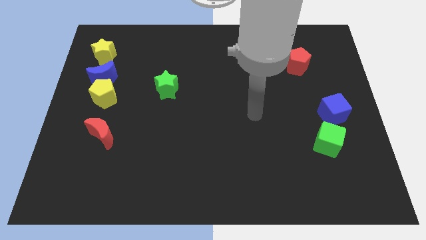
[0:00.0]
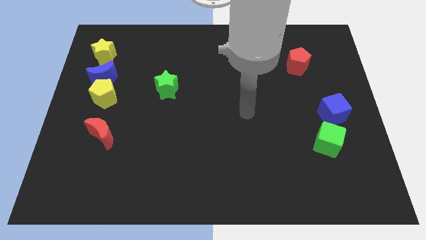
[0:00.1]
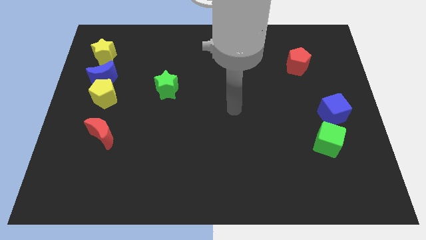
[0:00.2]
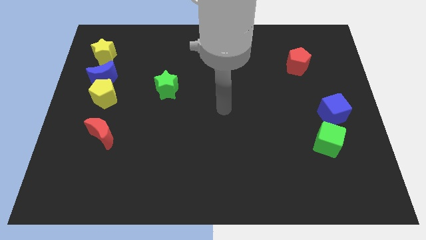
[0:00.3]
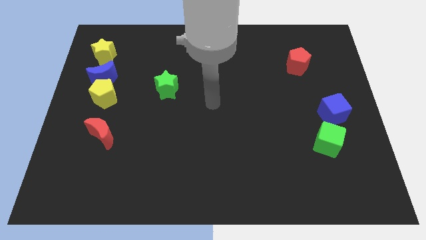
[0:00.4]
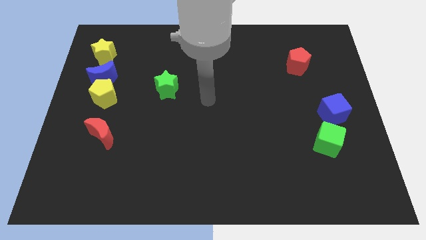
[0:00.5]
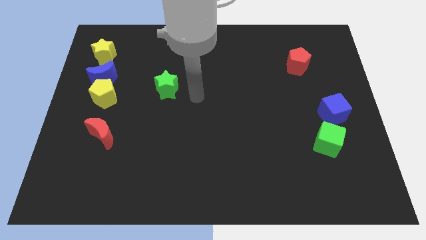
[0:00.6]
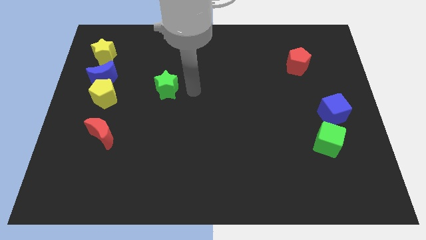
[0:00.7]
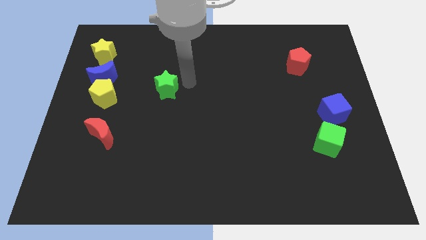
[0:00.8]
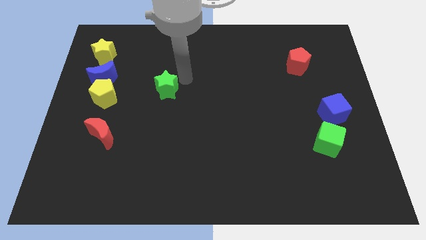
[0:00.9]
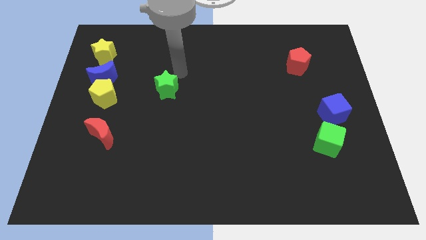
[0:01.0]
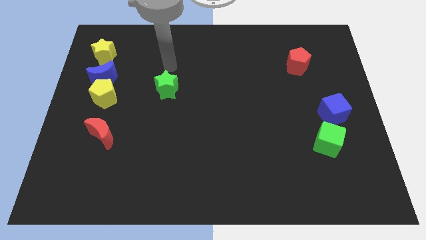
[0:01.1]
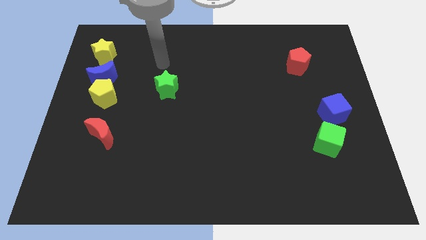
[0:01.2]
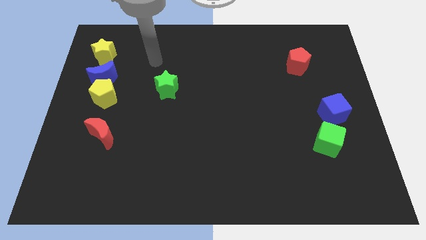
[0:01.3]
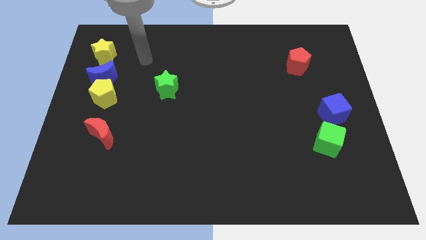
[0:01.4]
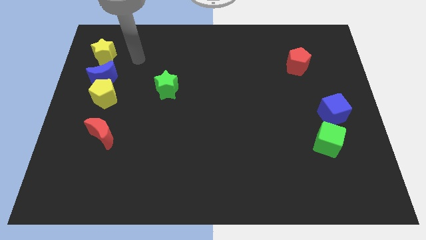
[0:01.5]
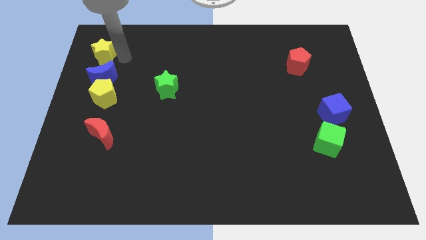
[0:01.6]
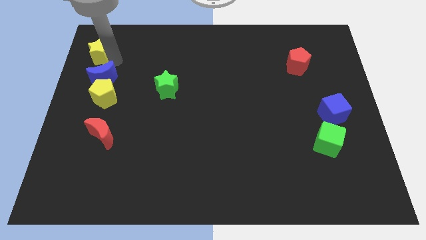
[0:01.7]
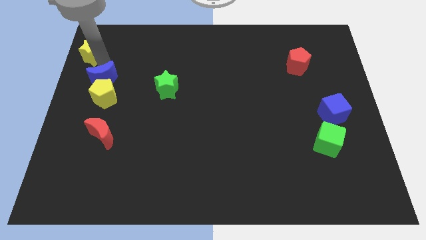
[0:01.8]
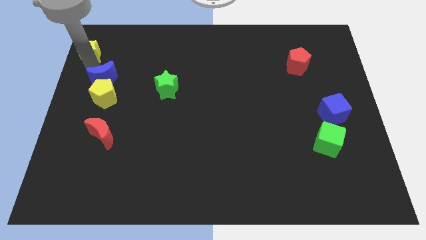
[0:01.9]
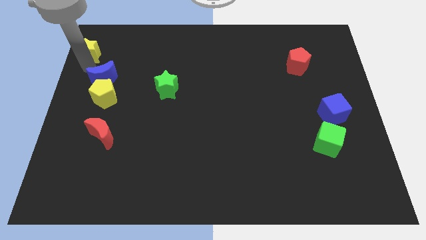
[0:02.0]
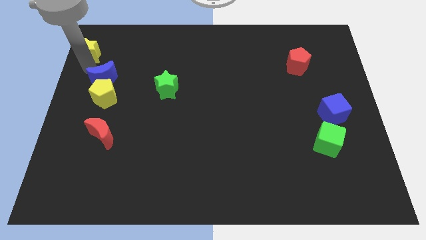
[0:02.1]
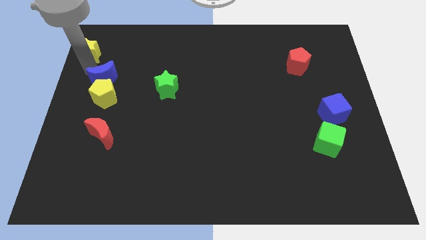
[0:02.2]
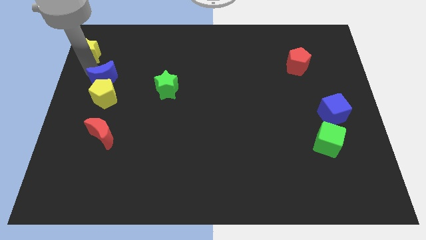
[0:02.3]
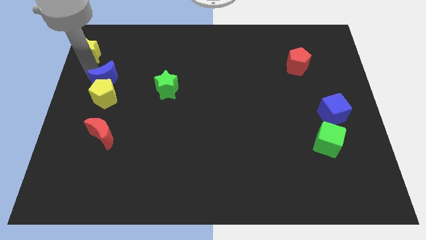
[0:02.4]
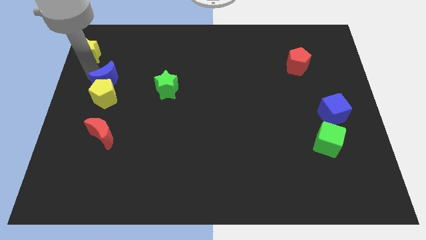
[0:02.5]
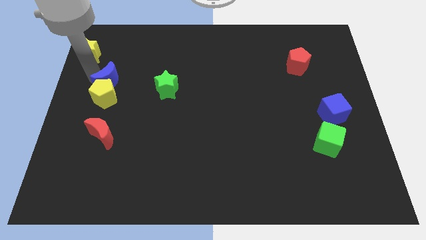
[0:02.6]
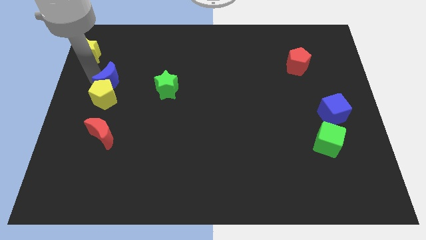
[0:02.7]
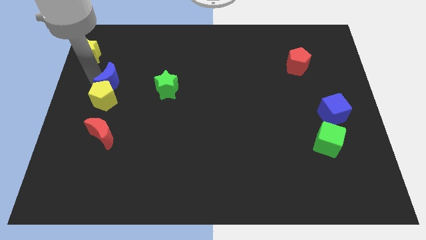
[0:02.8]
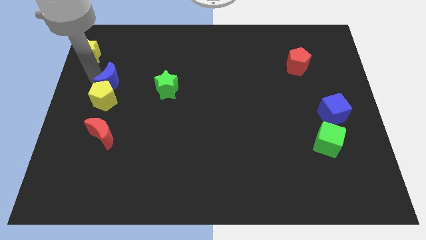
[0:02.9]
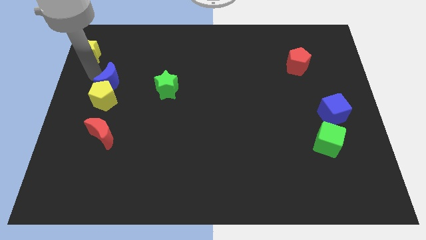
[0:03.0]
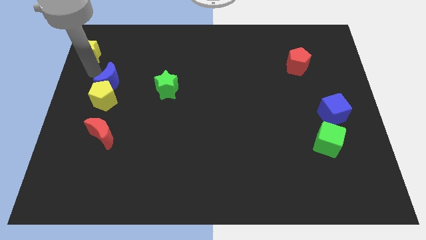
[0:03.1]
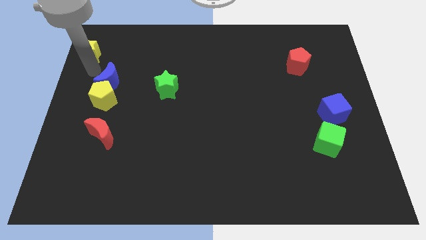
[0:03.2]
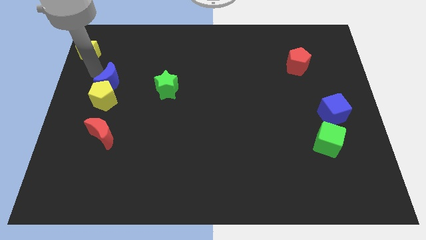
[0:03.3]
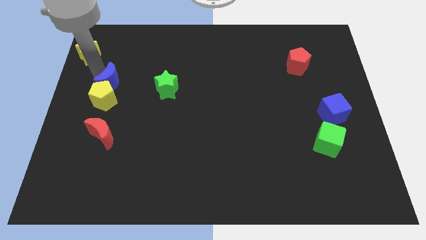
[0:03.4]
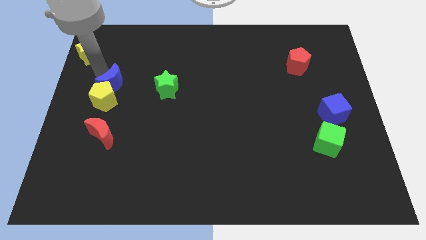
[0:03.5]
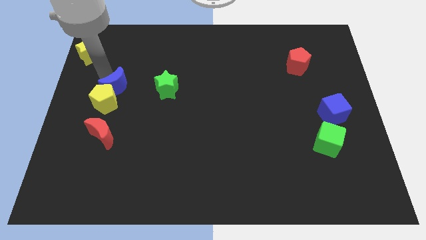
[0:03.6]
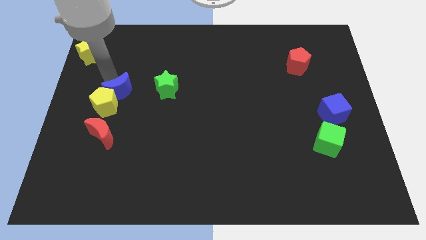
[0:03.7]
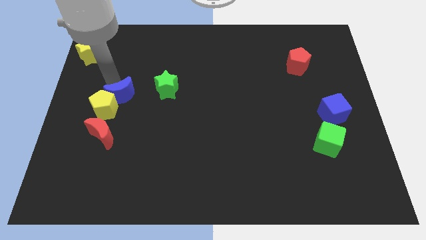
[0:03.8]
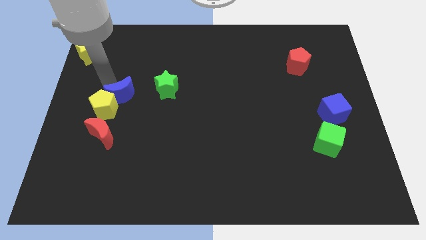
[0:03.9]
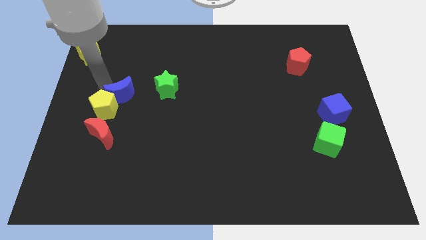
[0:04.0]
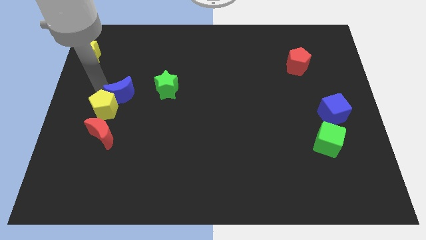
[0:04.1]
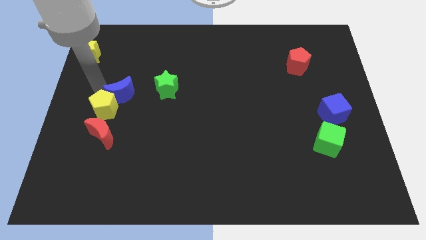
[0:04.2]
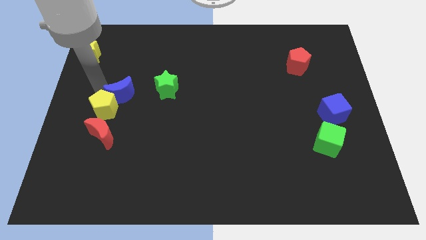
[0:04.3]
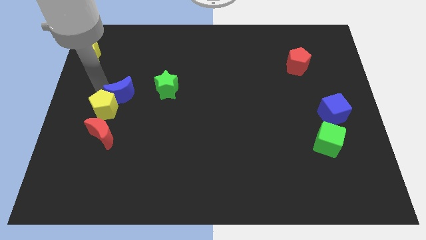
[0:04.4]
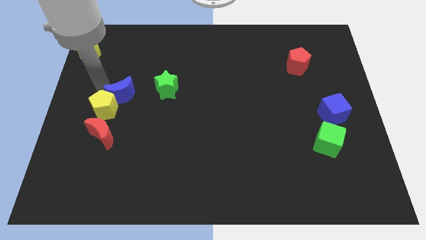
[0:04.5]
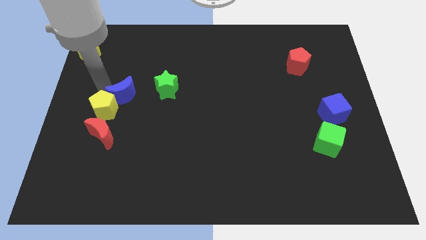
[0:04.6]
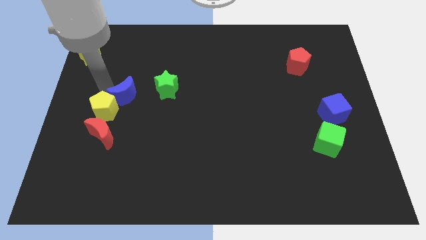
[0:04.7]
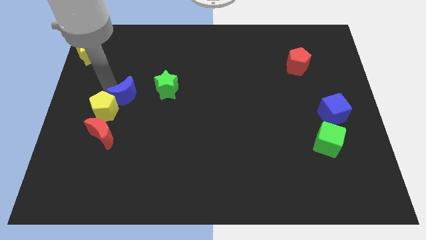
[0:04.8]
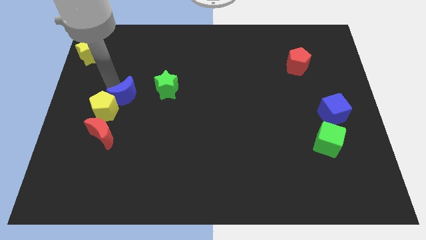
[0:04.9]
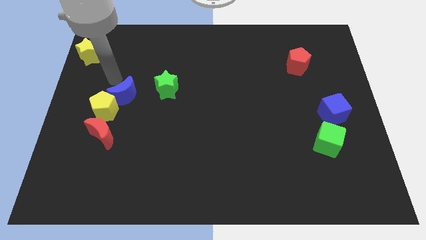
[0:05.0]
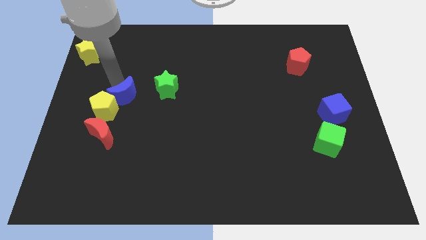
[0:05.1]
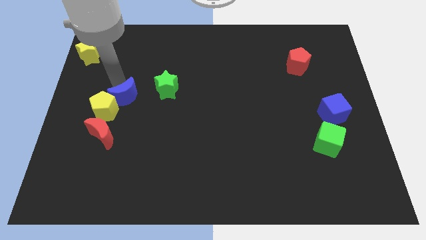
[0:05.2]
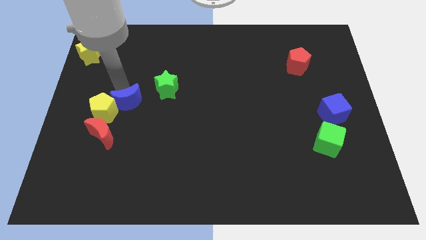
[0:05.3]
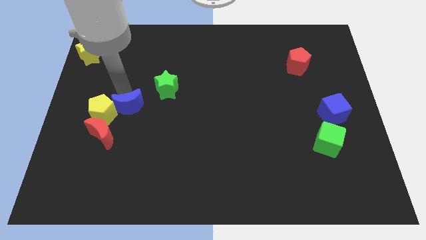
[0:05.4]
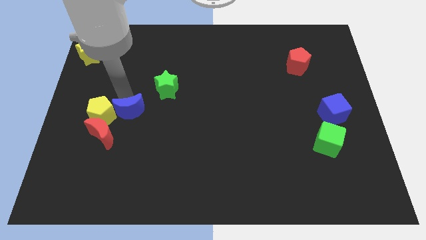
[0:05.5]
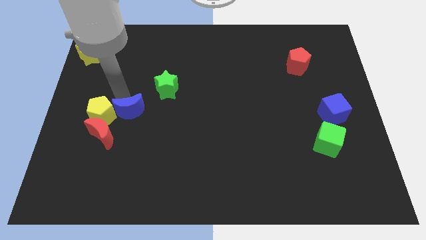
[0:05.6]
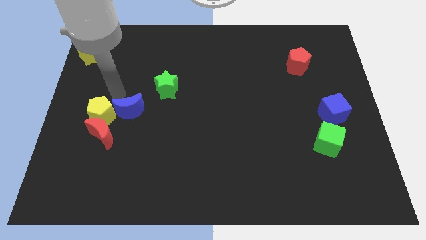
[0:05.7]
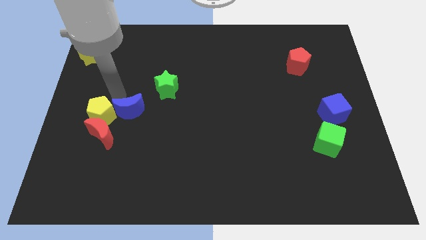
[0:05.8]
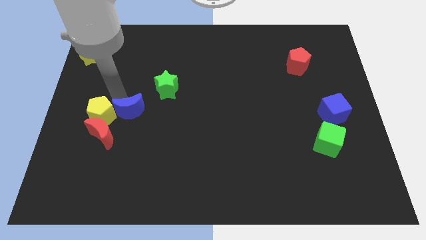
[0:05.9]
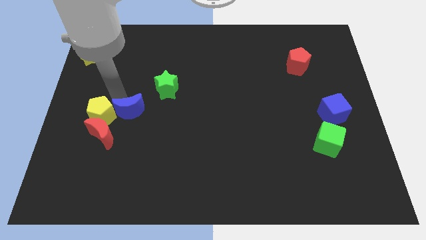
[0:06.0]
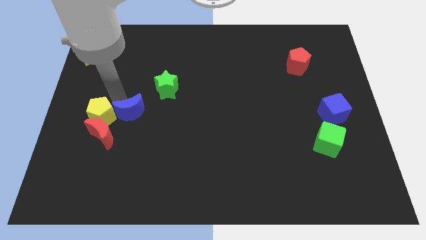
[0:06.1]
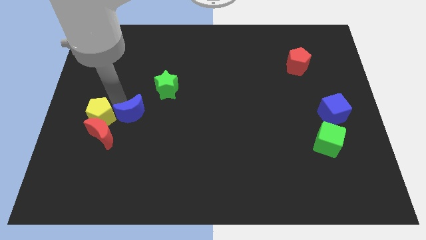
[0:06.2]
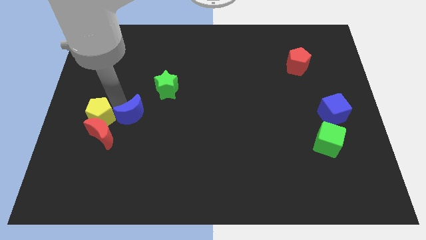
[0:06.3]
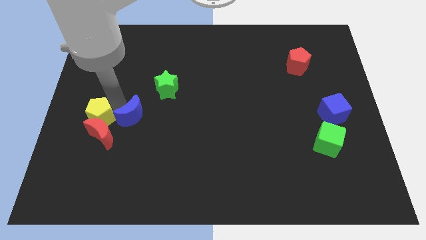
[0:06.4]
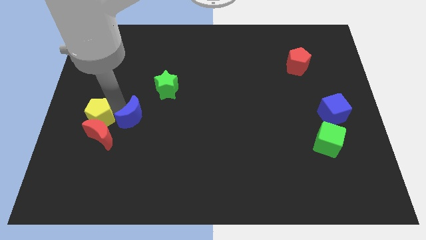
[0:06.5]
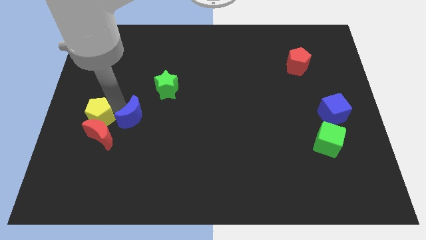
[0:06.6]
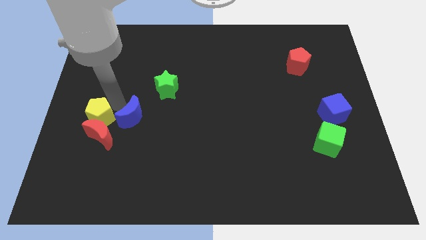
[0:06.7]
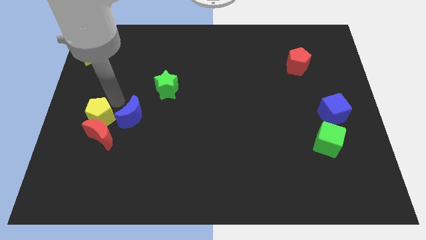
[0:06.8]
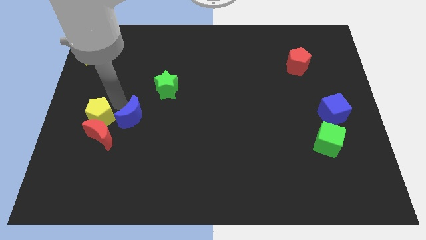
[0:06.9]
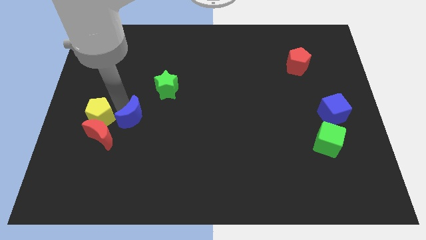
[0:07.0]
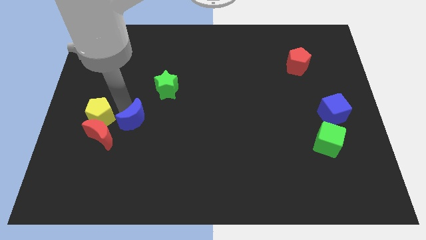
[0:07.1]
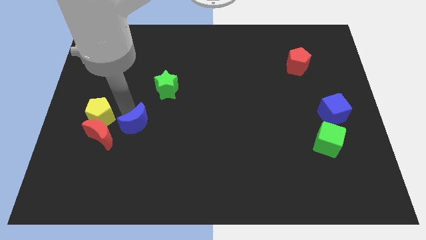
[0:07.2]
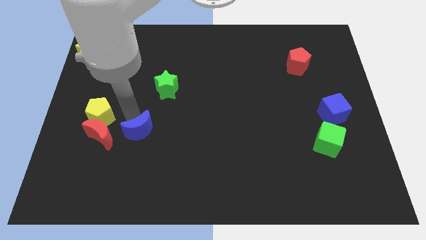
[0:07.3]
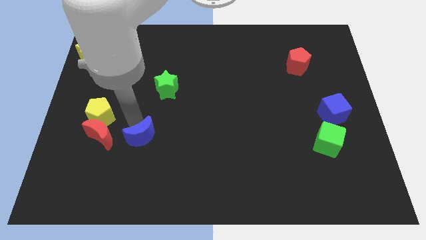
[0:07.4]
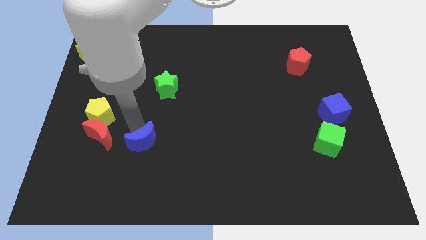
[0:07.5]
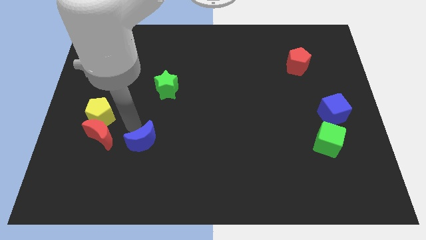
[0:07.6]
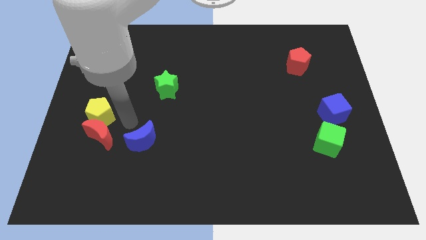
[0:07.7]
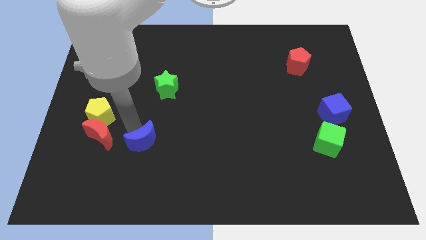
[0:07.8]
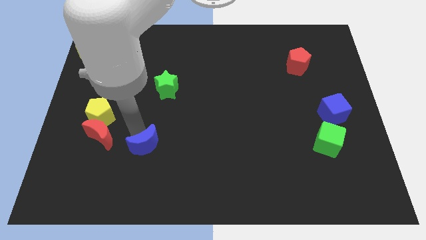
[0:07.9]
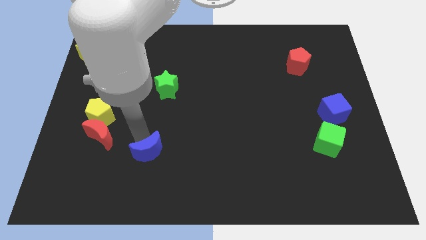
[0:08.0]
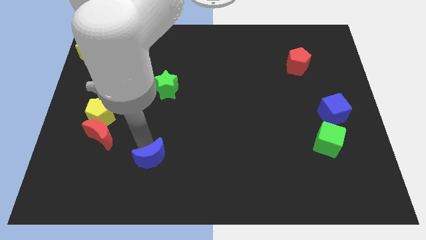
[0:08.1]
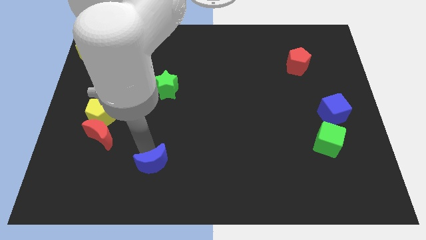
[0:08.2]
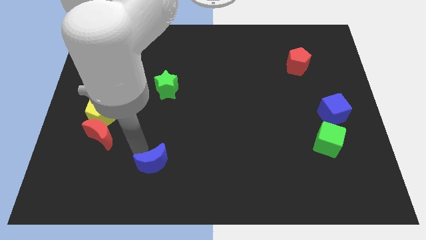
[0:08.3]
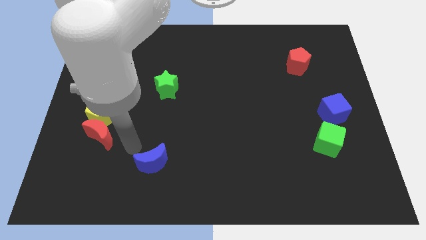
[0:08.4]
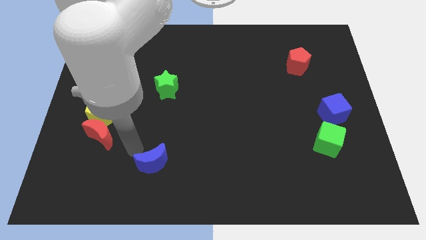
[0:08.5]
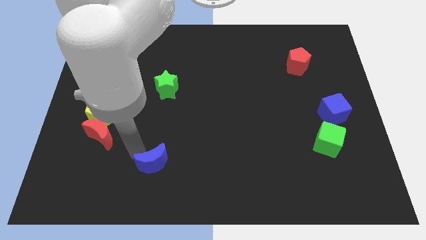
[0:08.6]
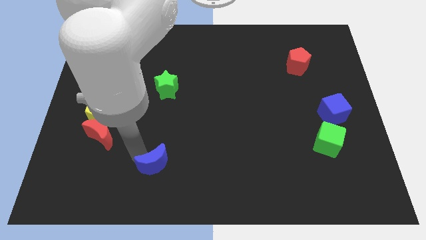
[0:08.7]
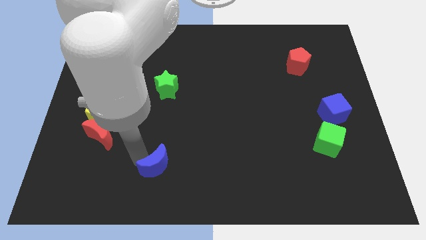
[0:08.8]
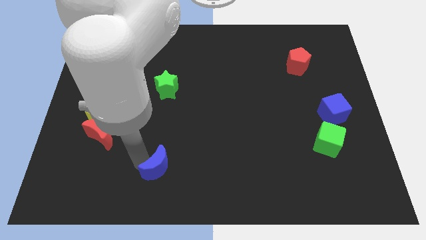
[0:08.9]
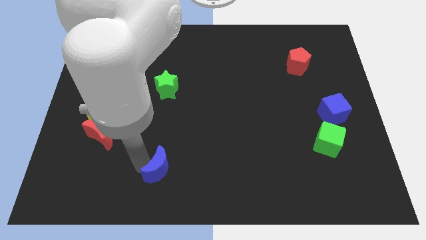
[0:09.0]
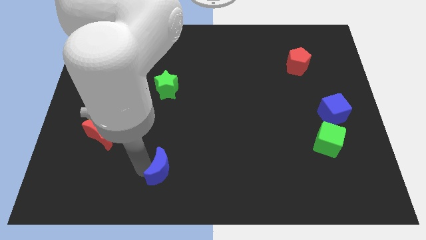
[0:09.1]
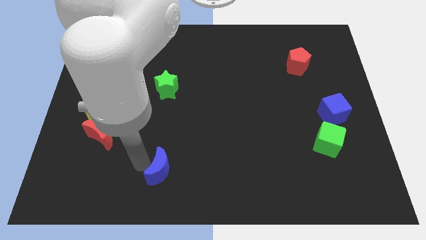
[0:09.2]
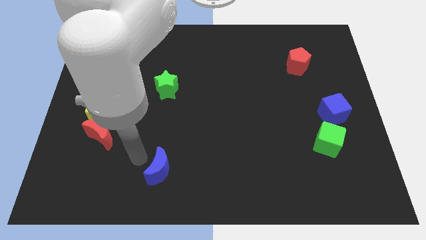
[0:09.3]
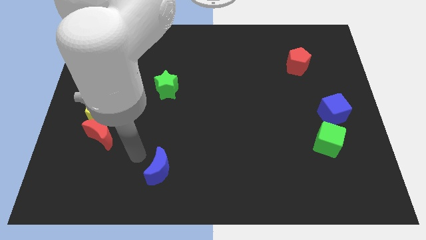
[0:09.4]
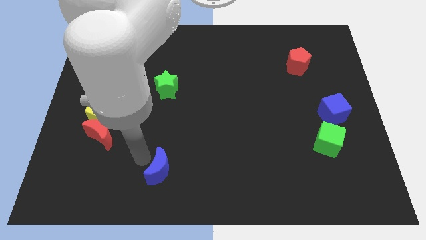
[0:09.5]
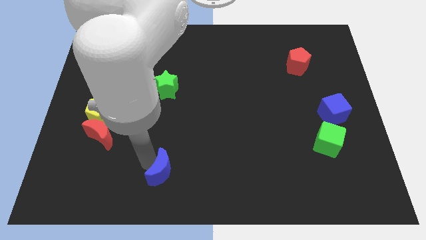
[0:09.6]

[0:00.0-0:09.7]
move the blue moon to the bottom
